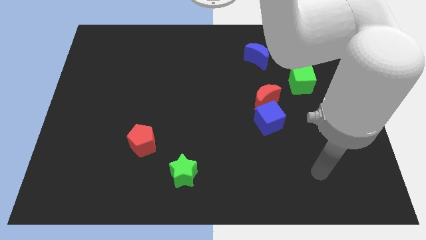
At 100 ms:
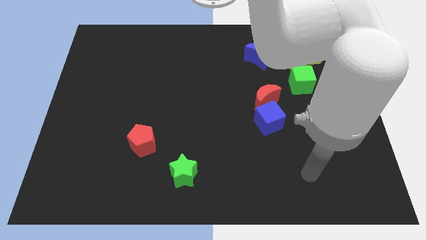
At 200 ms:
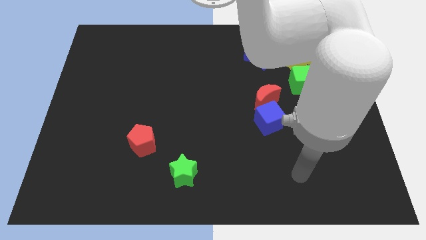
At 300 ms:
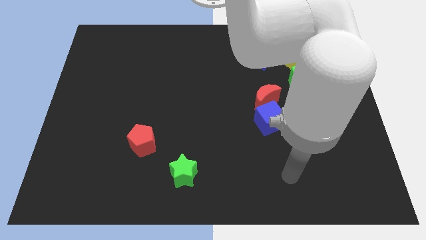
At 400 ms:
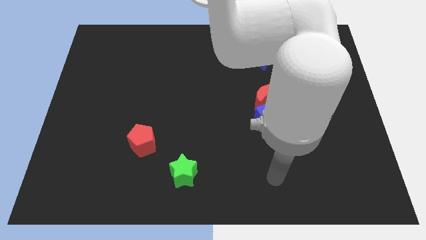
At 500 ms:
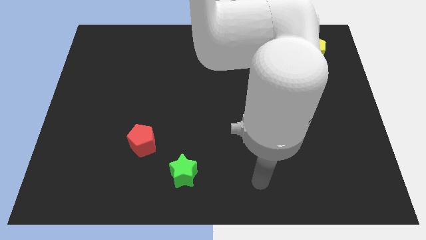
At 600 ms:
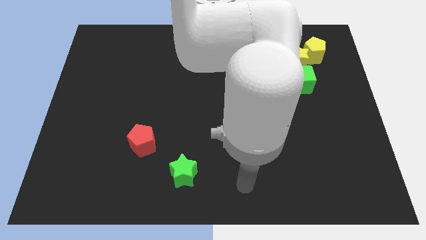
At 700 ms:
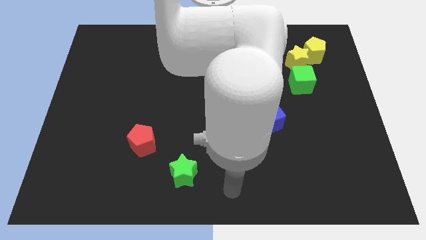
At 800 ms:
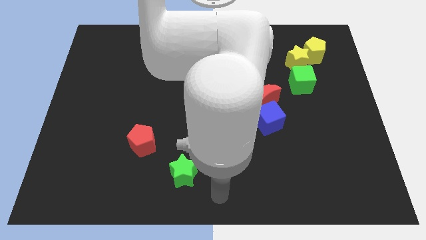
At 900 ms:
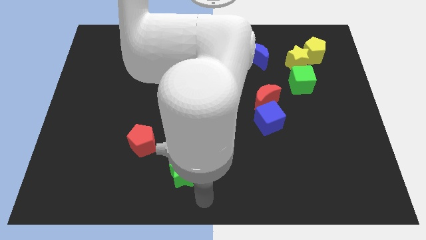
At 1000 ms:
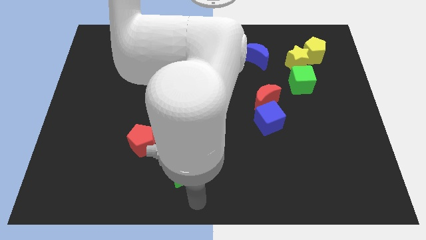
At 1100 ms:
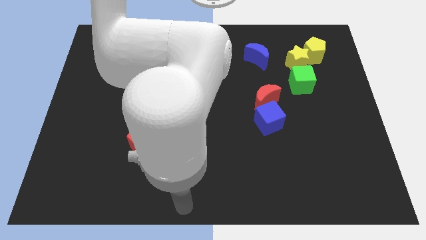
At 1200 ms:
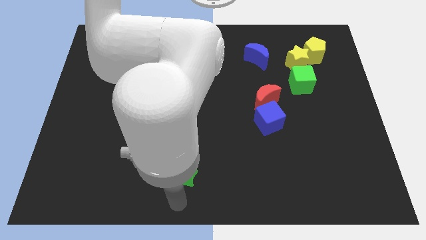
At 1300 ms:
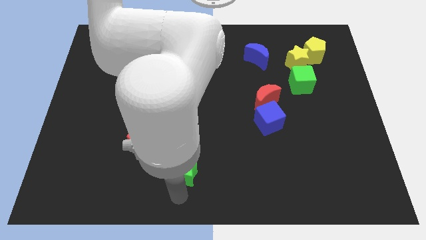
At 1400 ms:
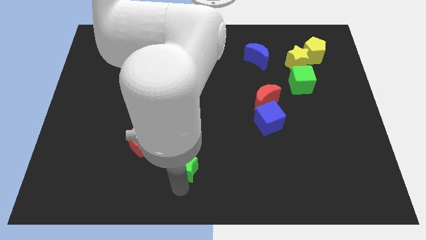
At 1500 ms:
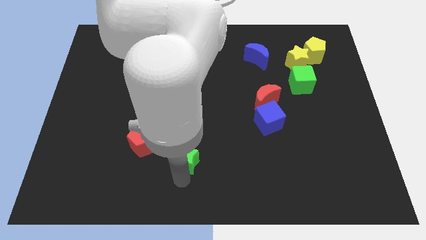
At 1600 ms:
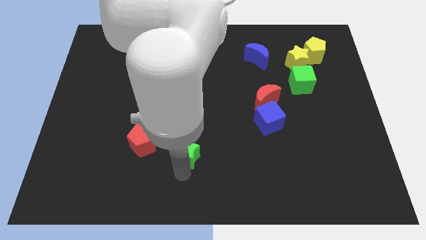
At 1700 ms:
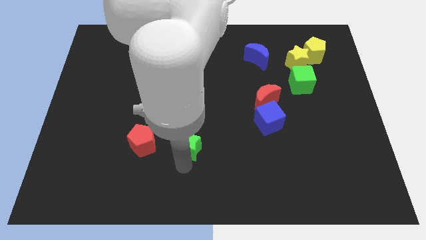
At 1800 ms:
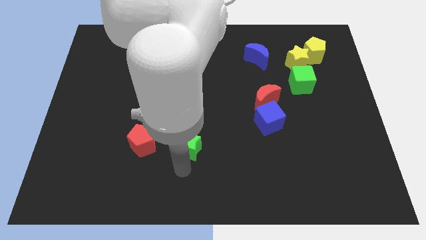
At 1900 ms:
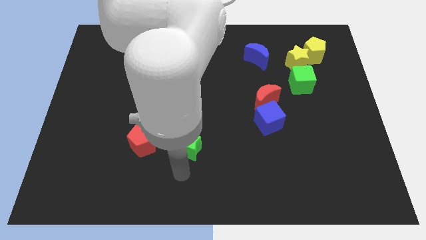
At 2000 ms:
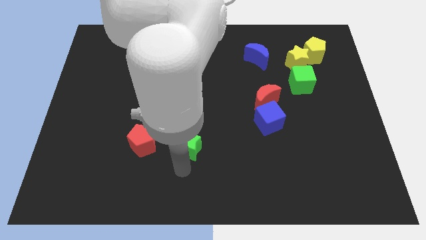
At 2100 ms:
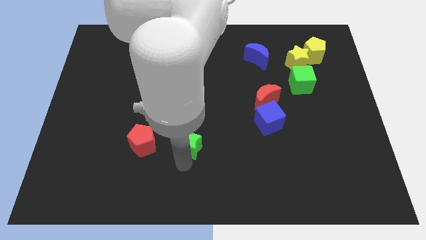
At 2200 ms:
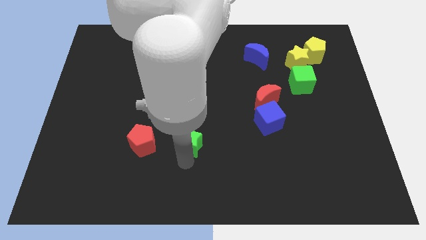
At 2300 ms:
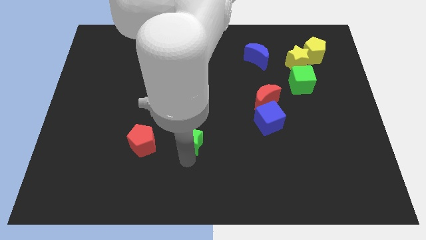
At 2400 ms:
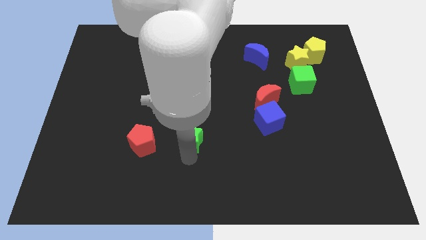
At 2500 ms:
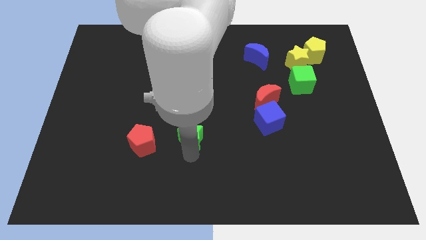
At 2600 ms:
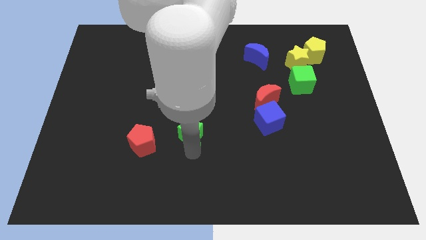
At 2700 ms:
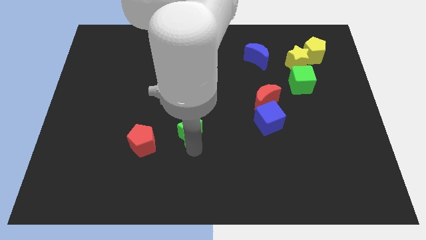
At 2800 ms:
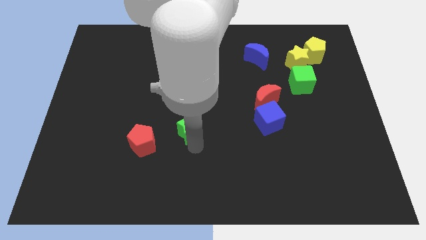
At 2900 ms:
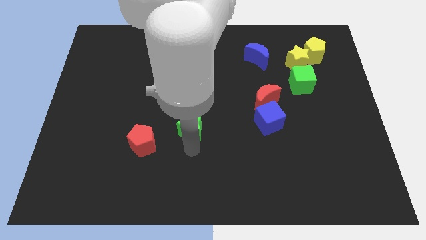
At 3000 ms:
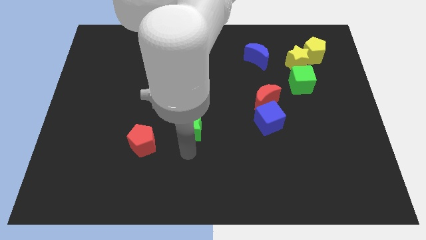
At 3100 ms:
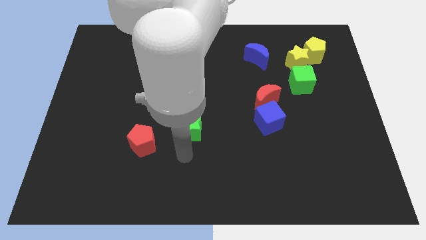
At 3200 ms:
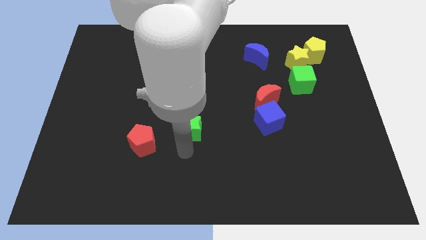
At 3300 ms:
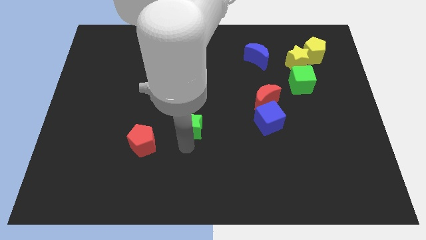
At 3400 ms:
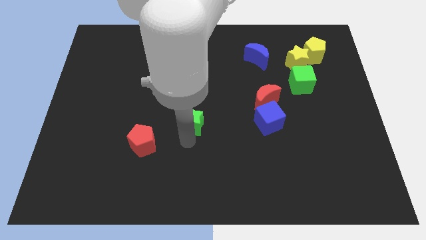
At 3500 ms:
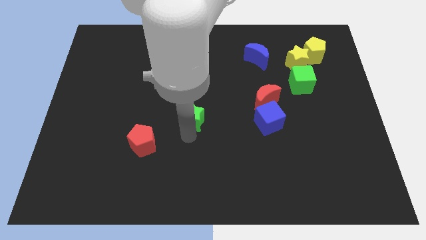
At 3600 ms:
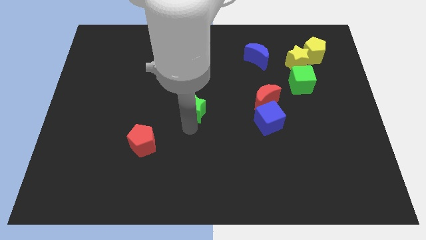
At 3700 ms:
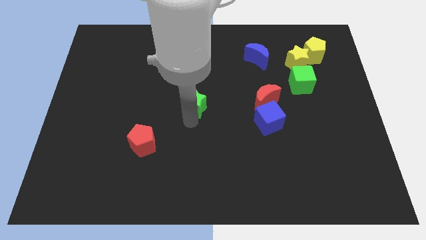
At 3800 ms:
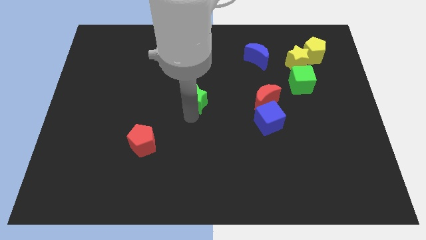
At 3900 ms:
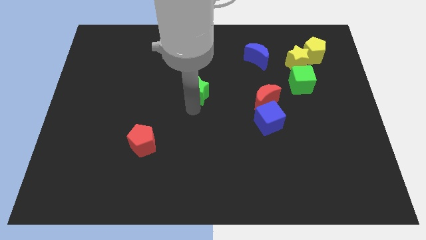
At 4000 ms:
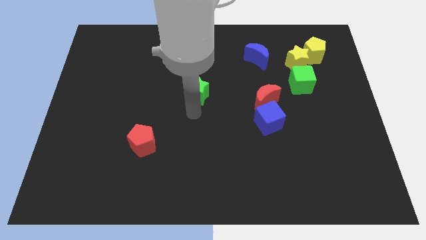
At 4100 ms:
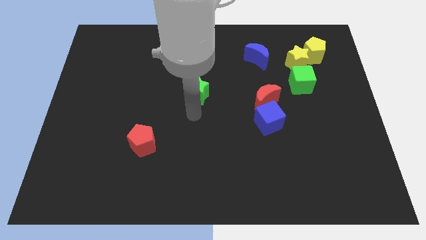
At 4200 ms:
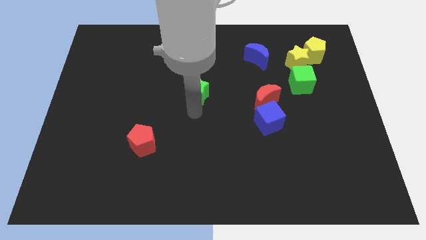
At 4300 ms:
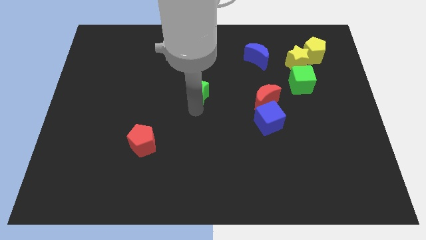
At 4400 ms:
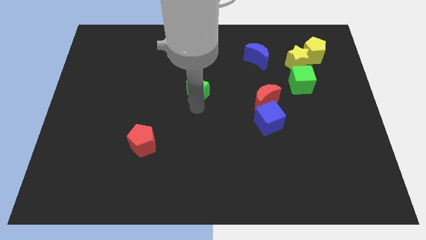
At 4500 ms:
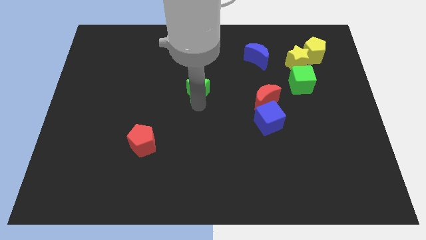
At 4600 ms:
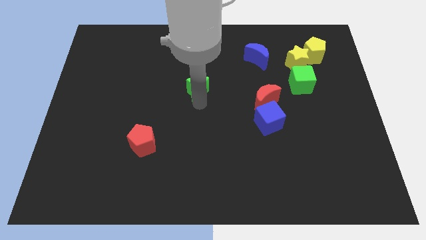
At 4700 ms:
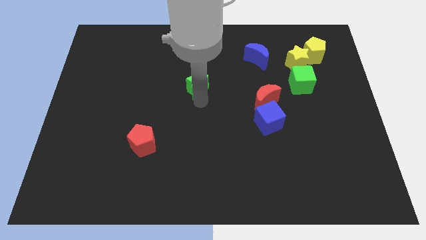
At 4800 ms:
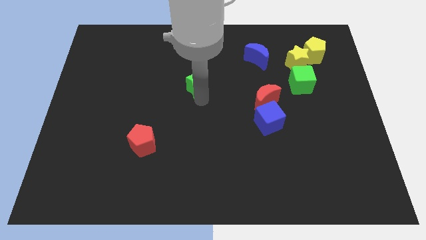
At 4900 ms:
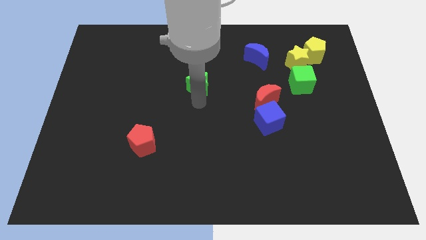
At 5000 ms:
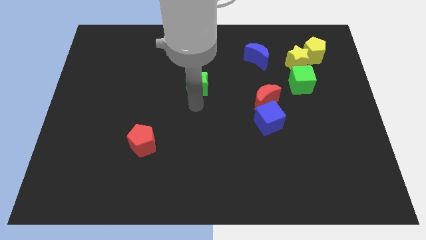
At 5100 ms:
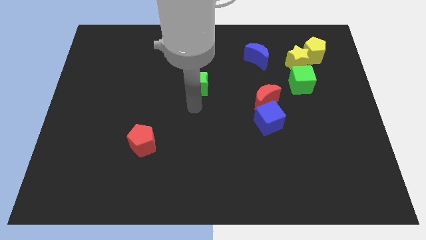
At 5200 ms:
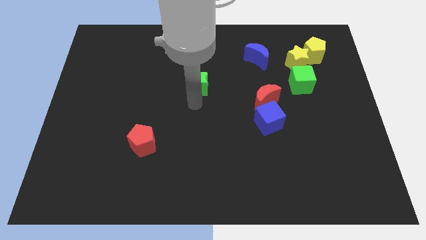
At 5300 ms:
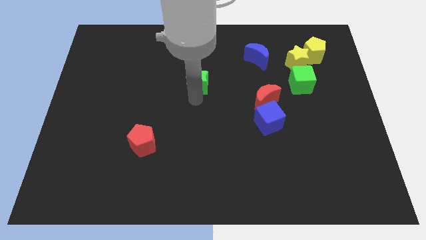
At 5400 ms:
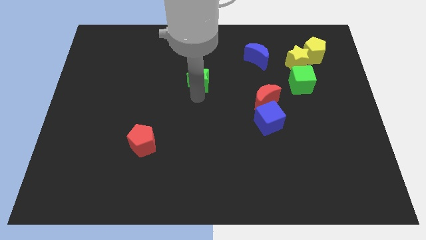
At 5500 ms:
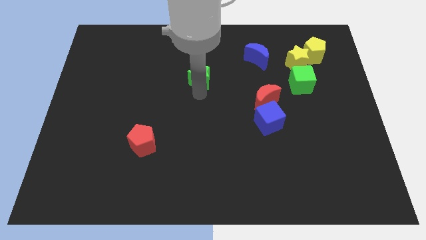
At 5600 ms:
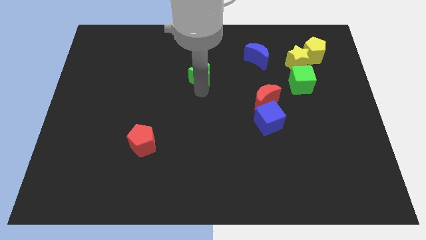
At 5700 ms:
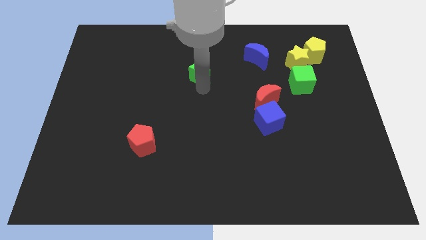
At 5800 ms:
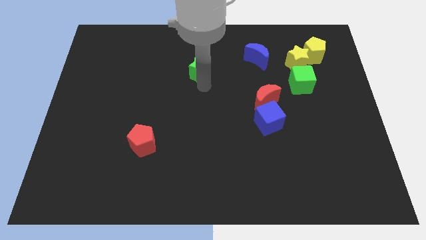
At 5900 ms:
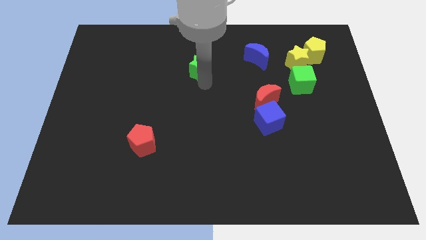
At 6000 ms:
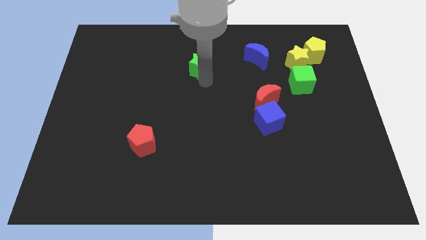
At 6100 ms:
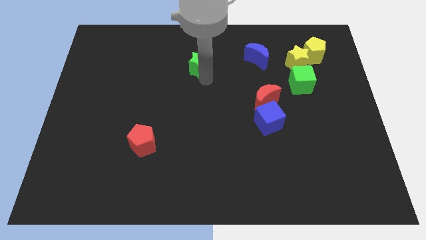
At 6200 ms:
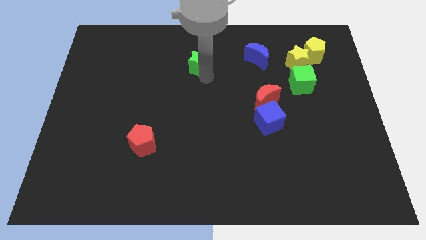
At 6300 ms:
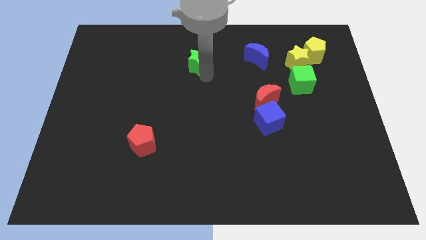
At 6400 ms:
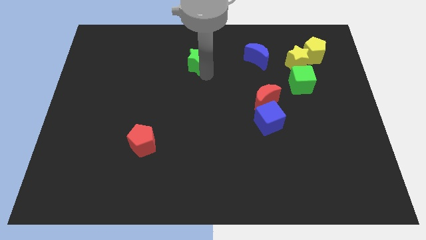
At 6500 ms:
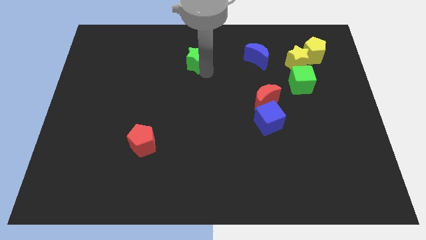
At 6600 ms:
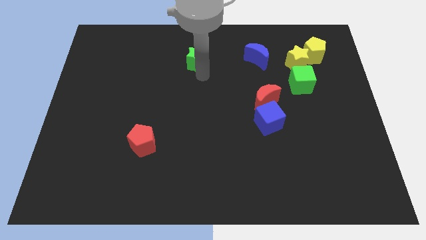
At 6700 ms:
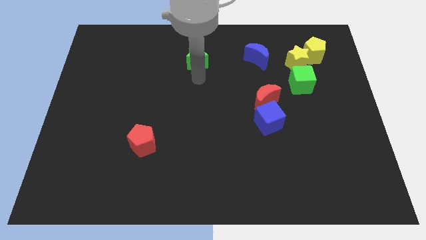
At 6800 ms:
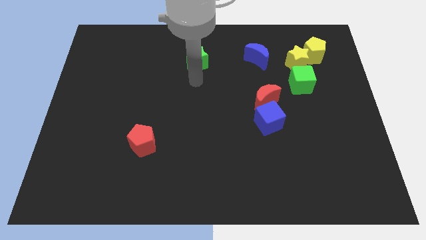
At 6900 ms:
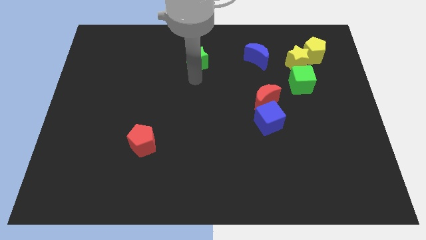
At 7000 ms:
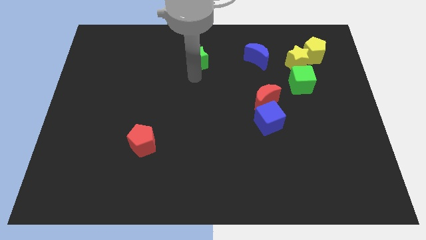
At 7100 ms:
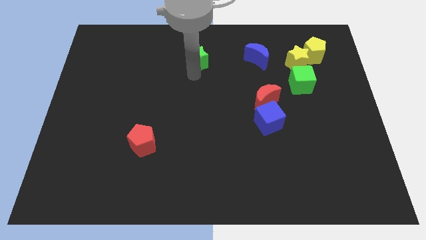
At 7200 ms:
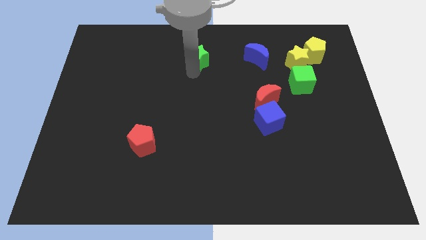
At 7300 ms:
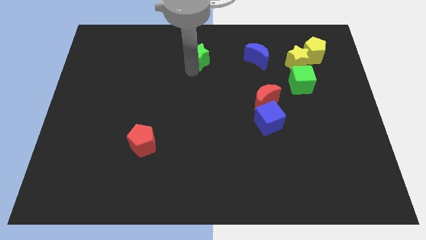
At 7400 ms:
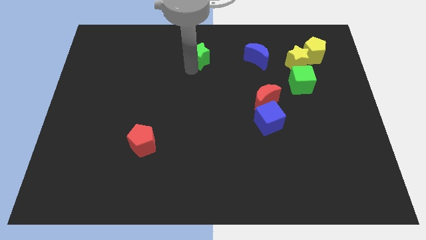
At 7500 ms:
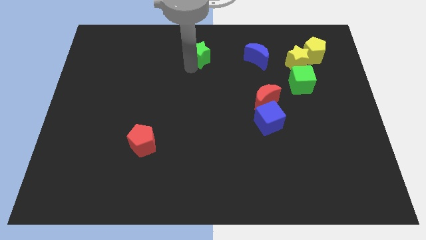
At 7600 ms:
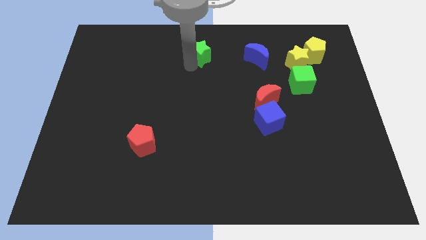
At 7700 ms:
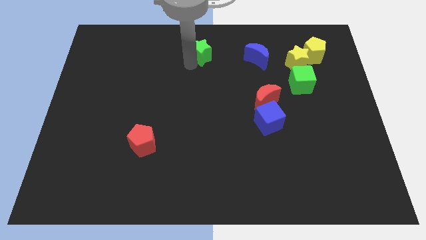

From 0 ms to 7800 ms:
push the green star to the top

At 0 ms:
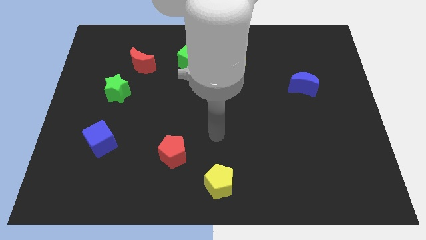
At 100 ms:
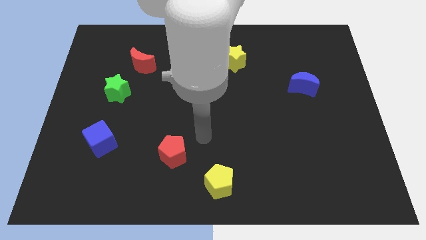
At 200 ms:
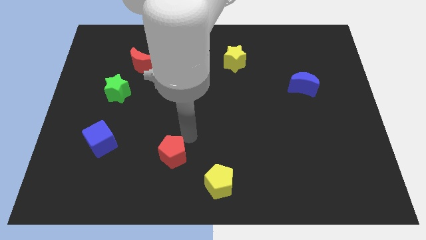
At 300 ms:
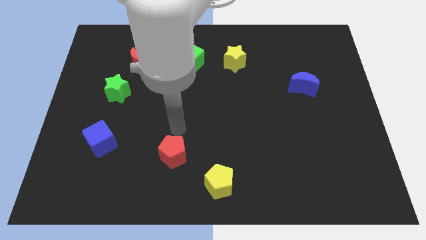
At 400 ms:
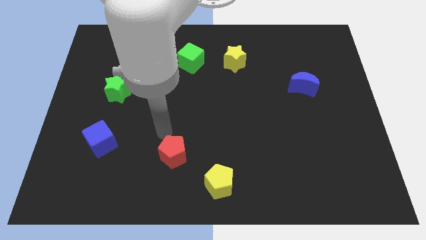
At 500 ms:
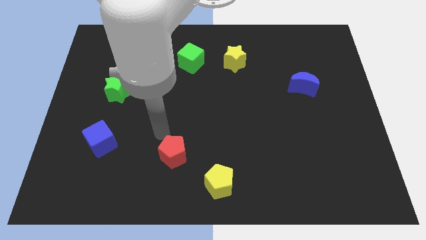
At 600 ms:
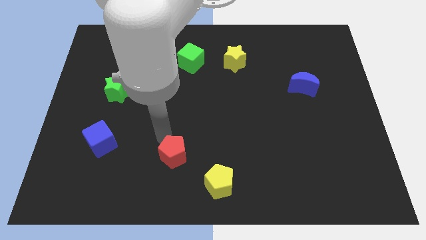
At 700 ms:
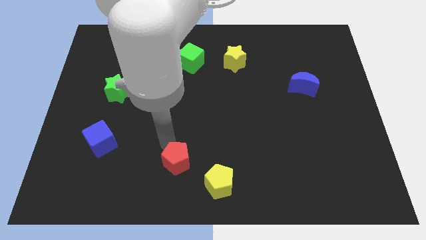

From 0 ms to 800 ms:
move the red pentagon to the bottom
